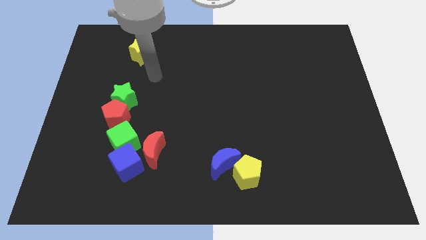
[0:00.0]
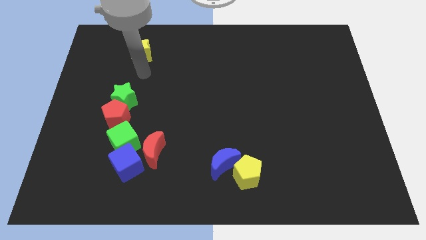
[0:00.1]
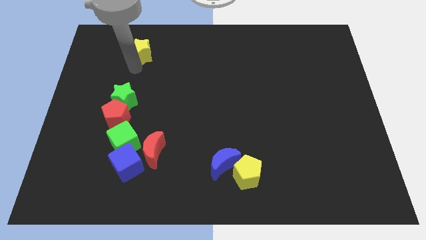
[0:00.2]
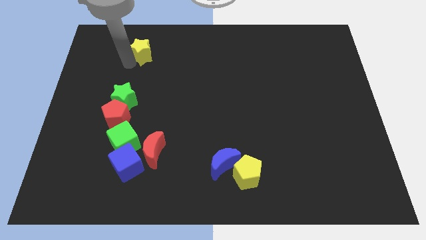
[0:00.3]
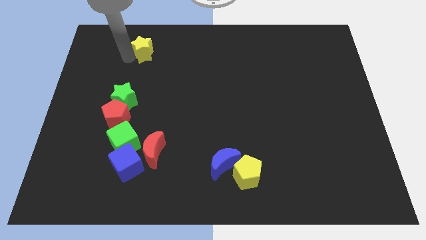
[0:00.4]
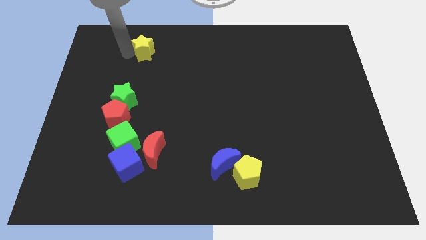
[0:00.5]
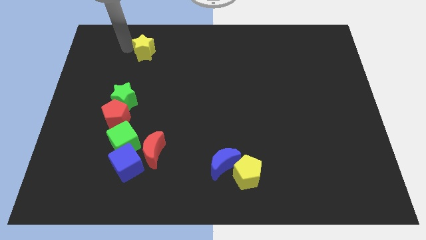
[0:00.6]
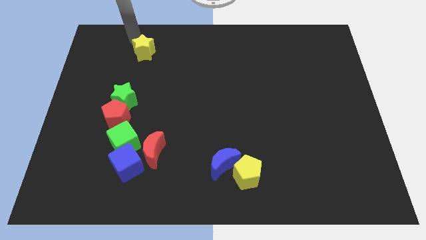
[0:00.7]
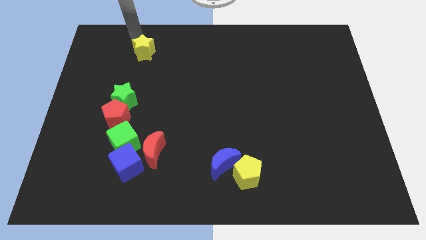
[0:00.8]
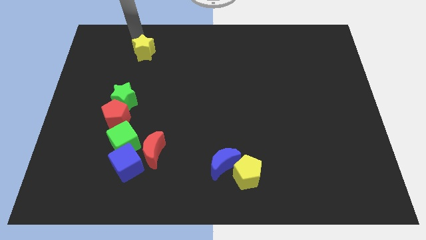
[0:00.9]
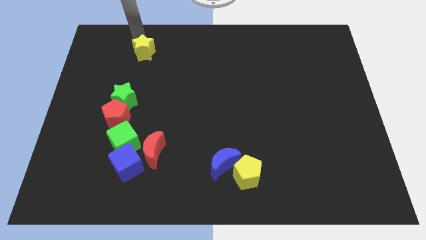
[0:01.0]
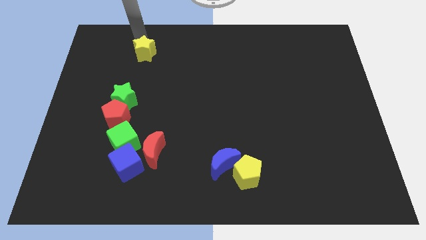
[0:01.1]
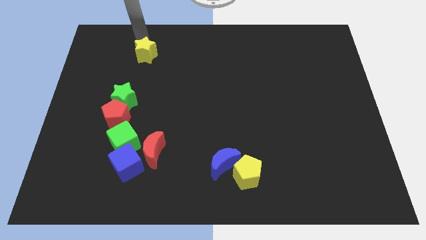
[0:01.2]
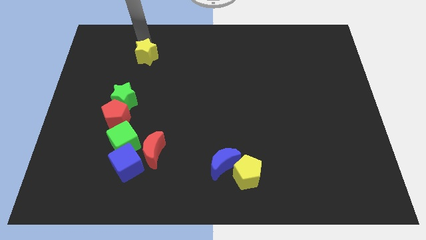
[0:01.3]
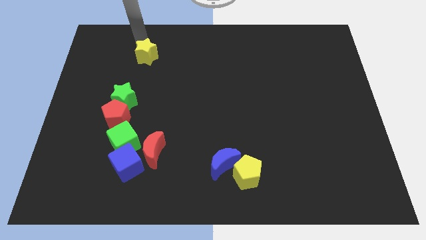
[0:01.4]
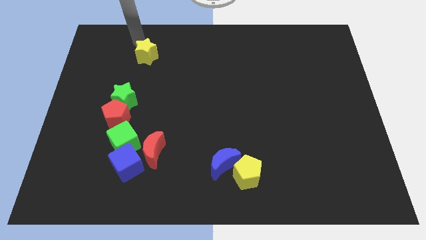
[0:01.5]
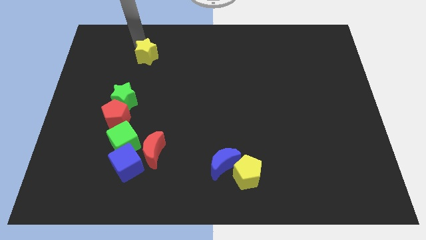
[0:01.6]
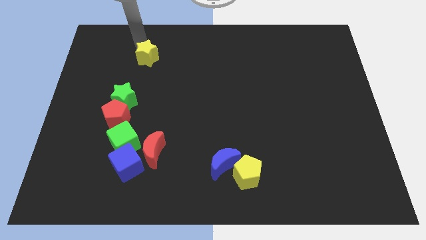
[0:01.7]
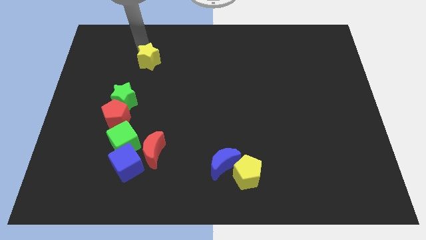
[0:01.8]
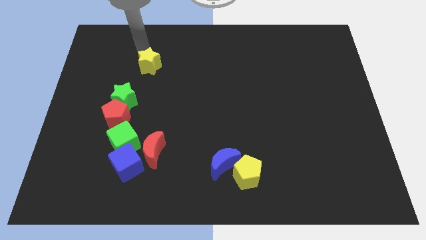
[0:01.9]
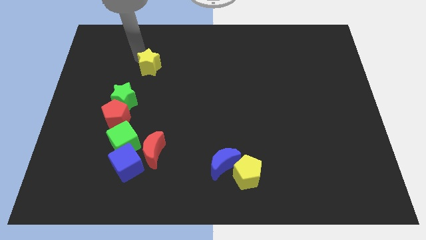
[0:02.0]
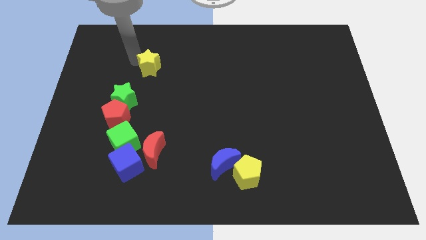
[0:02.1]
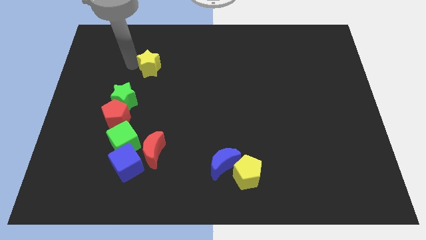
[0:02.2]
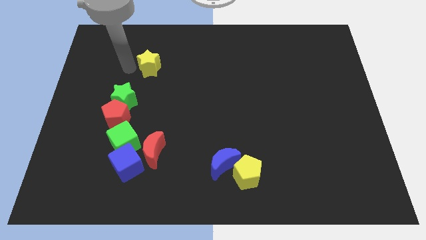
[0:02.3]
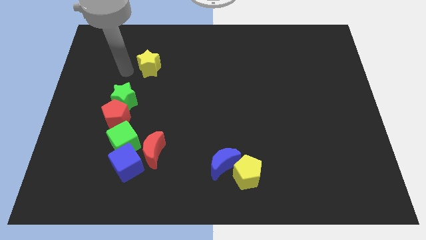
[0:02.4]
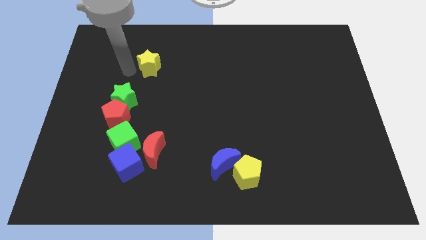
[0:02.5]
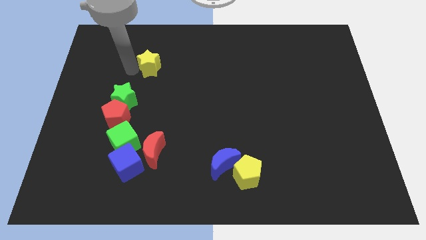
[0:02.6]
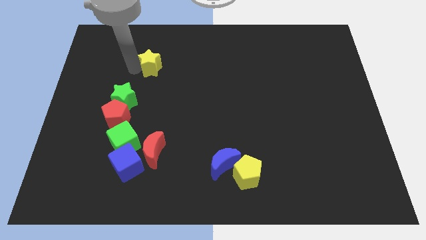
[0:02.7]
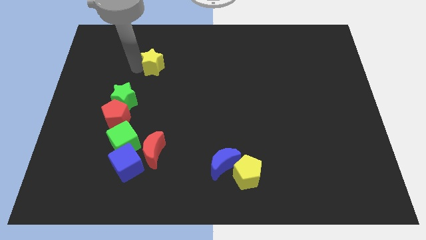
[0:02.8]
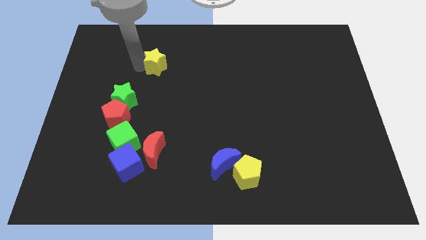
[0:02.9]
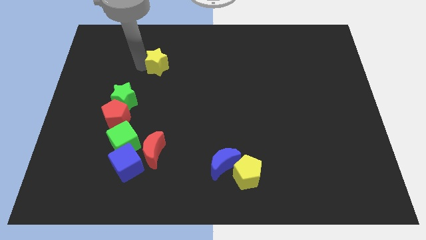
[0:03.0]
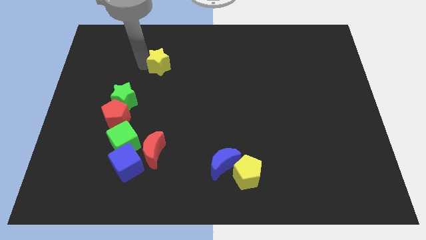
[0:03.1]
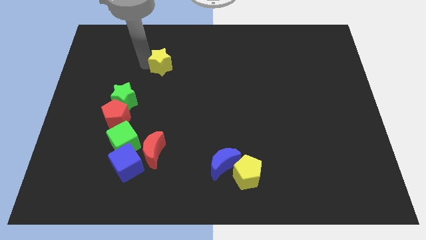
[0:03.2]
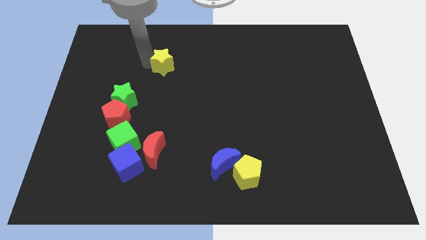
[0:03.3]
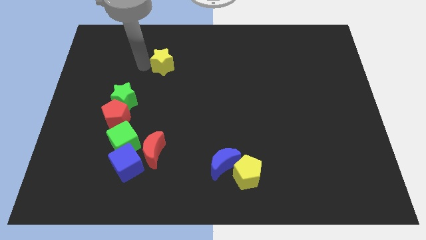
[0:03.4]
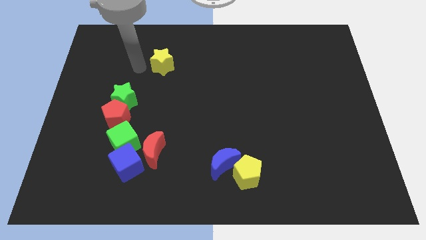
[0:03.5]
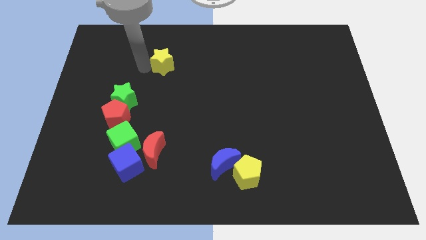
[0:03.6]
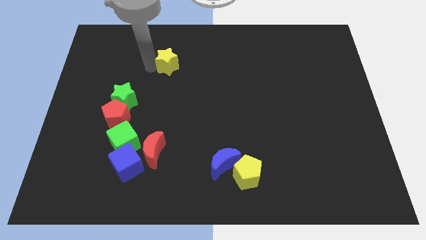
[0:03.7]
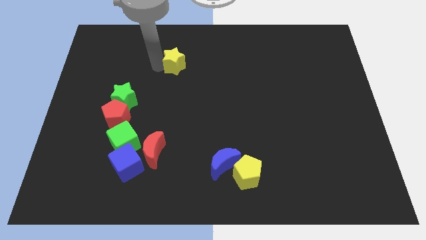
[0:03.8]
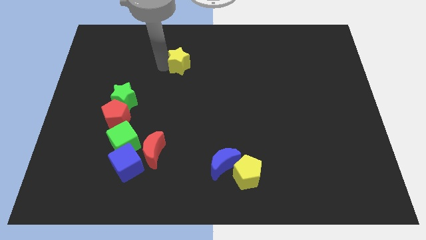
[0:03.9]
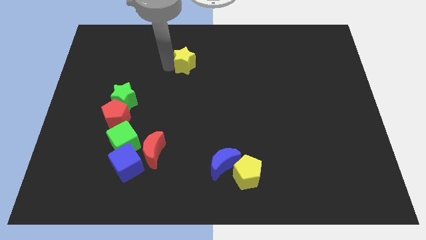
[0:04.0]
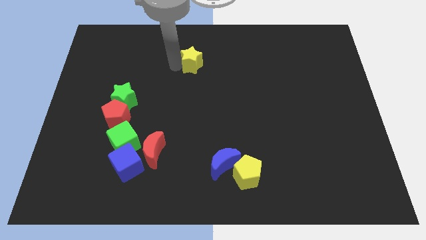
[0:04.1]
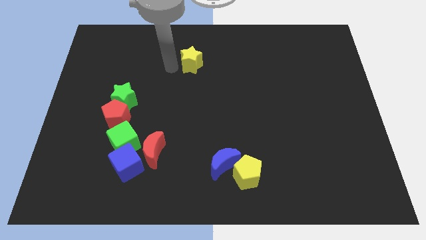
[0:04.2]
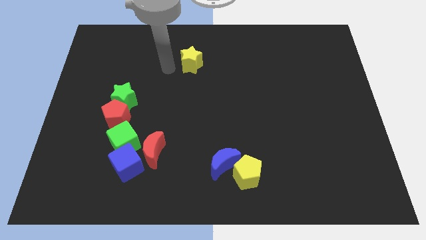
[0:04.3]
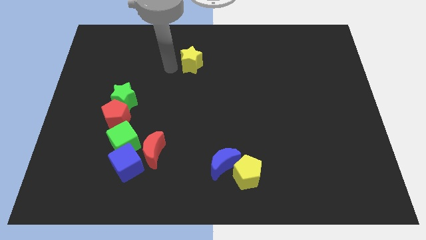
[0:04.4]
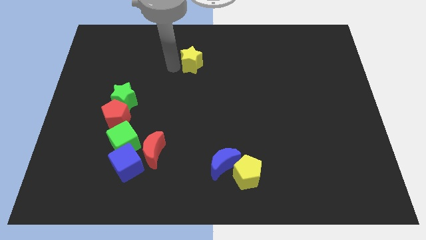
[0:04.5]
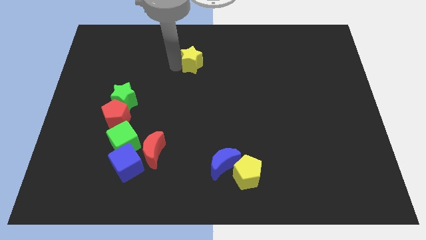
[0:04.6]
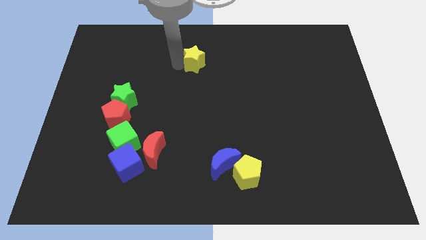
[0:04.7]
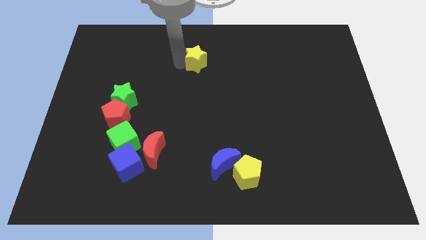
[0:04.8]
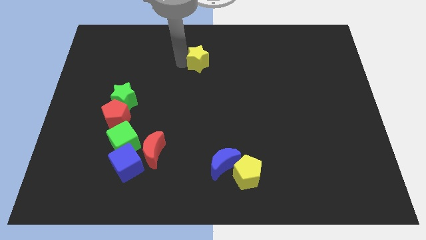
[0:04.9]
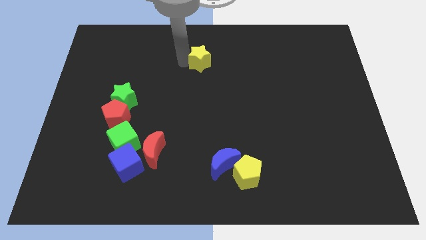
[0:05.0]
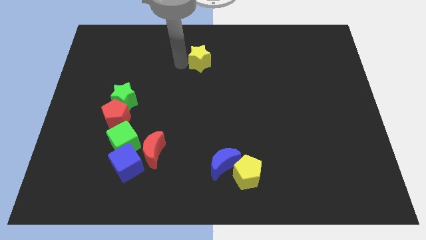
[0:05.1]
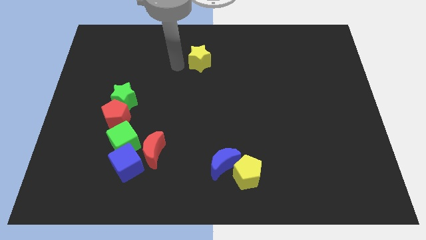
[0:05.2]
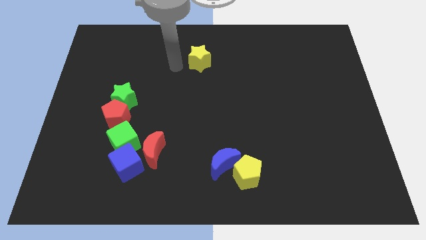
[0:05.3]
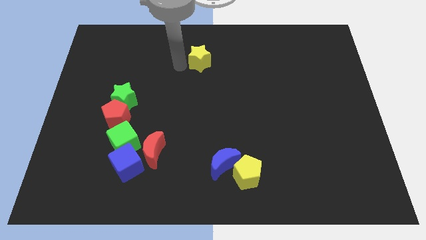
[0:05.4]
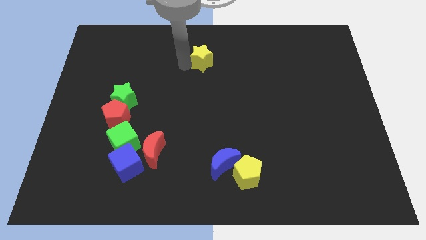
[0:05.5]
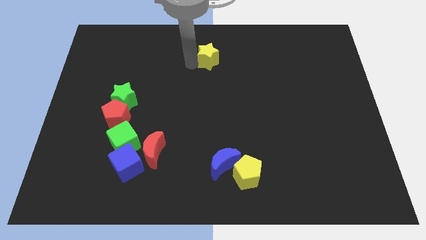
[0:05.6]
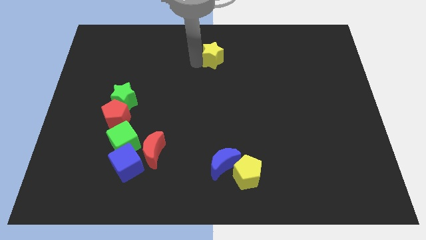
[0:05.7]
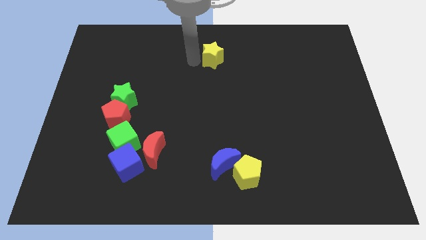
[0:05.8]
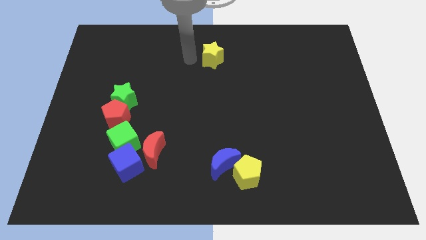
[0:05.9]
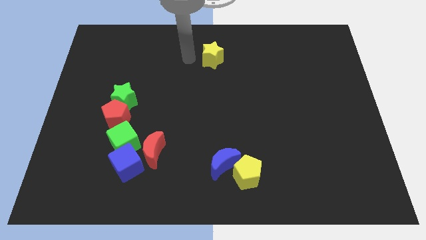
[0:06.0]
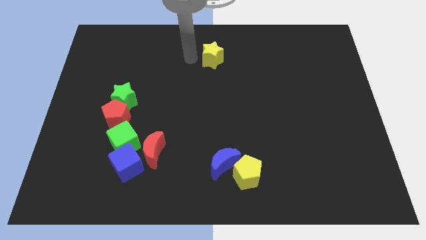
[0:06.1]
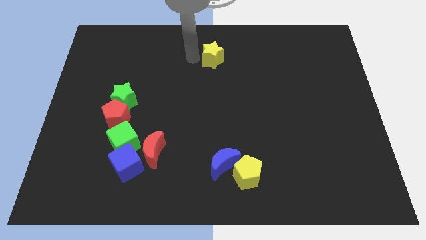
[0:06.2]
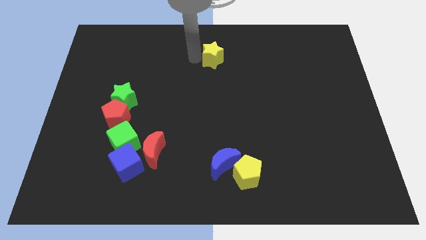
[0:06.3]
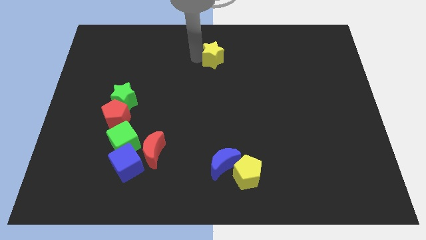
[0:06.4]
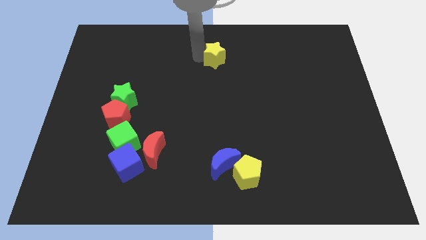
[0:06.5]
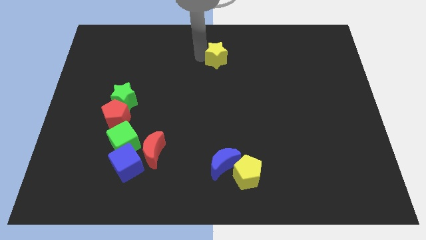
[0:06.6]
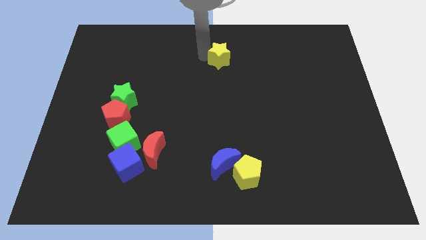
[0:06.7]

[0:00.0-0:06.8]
push the yellow star right

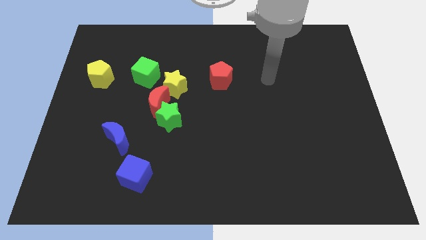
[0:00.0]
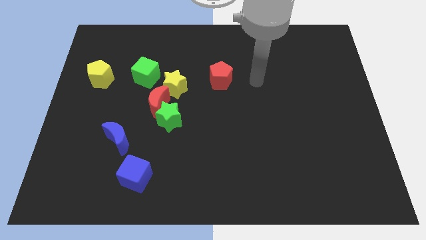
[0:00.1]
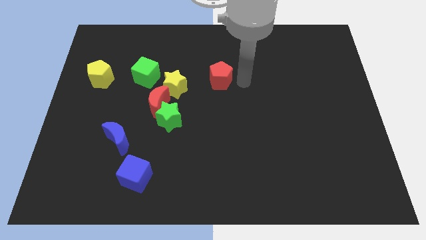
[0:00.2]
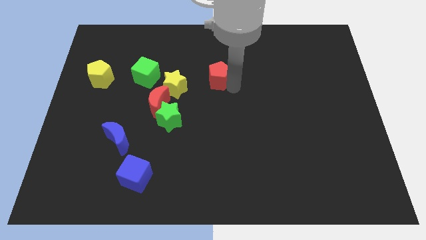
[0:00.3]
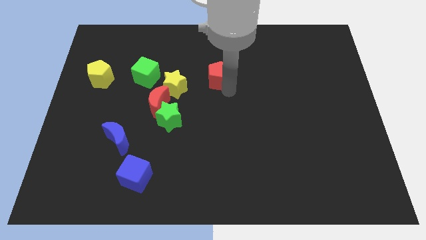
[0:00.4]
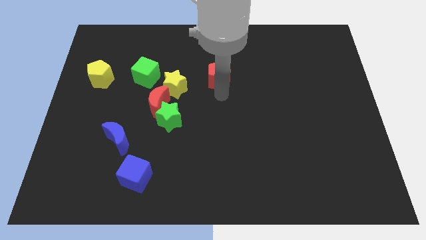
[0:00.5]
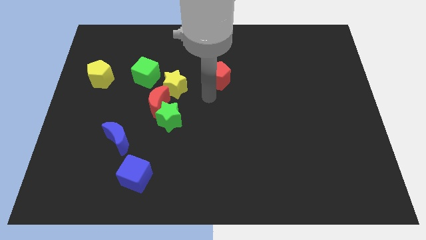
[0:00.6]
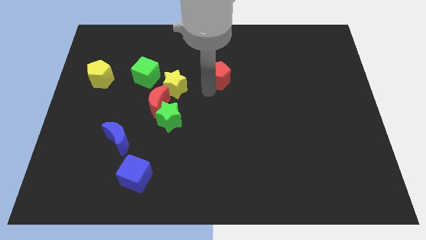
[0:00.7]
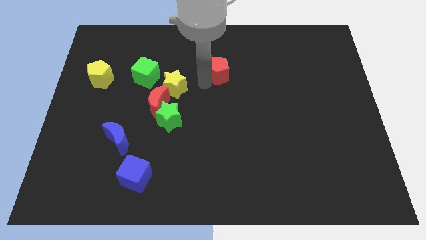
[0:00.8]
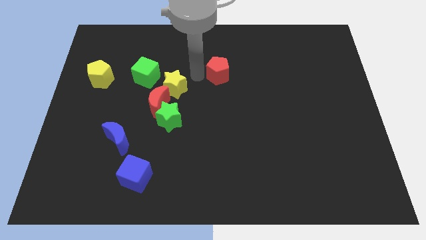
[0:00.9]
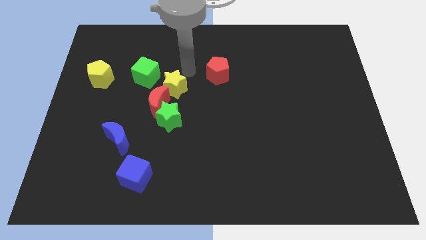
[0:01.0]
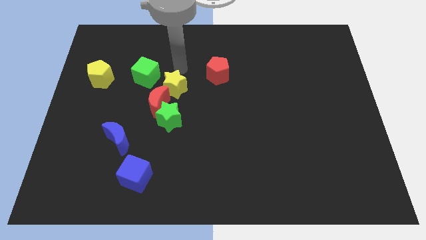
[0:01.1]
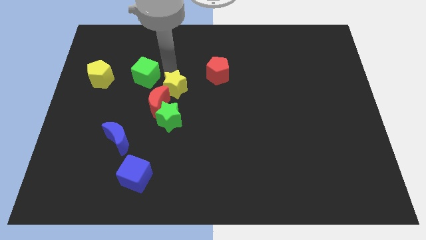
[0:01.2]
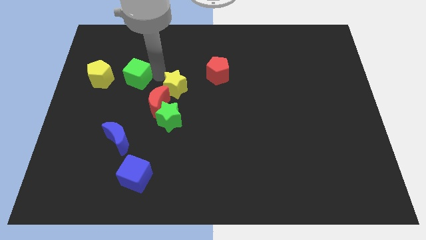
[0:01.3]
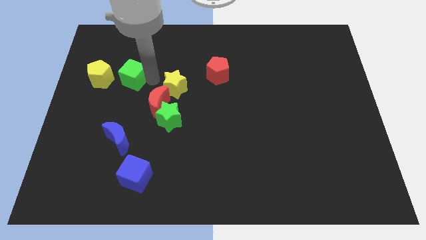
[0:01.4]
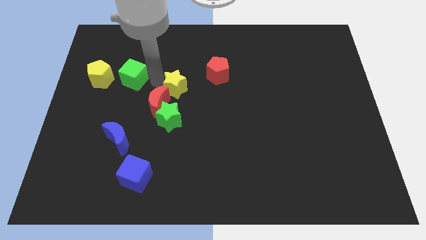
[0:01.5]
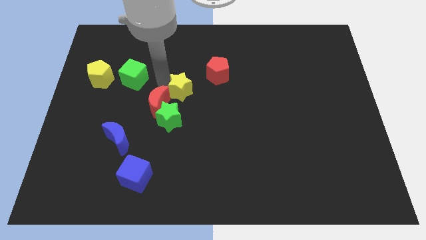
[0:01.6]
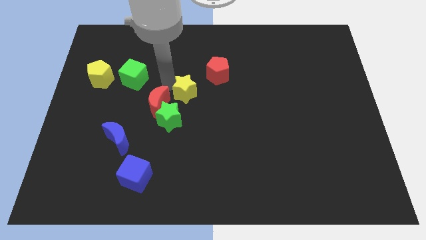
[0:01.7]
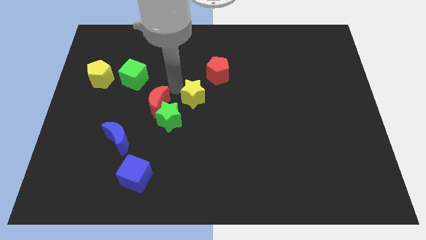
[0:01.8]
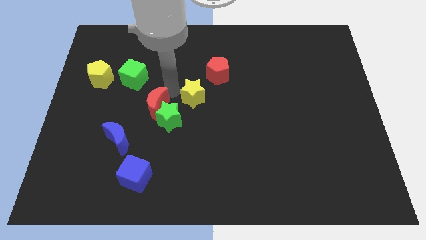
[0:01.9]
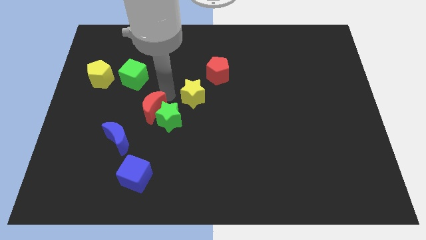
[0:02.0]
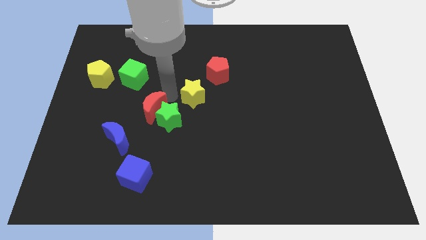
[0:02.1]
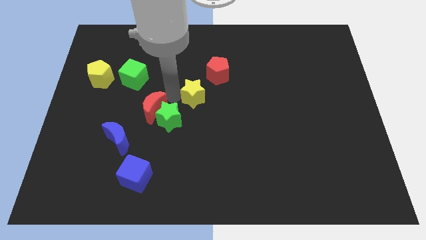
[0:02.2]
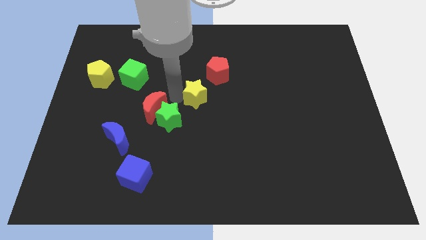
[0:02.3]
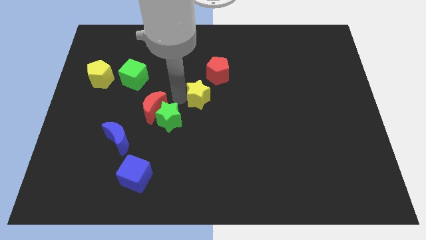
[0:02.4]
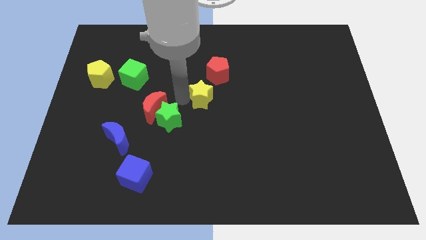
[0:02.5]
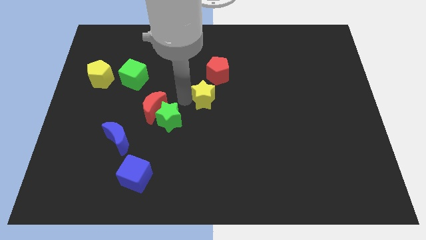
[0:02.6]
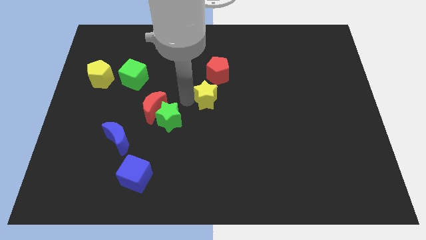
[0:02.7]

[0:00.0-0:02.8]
slightly move the yellow star to the right
